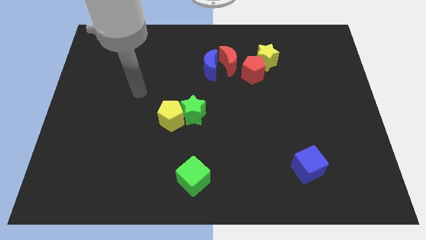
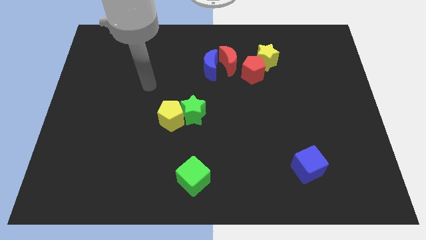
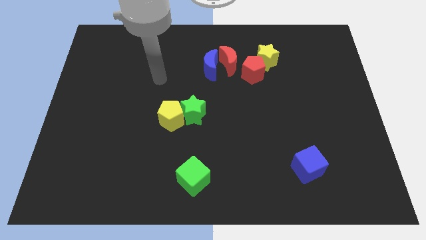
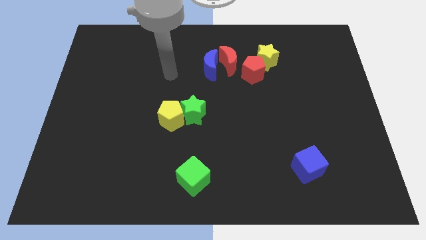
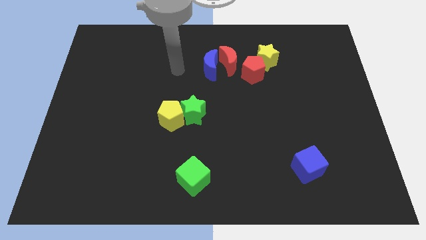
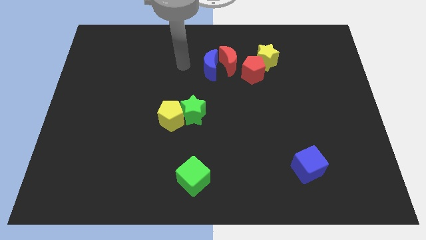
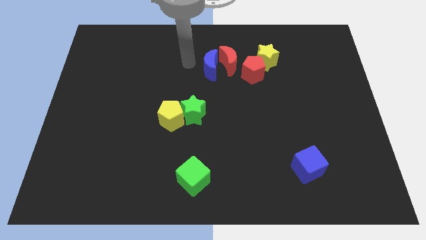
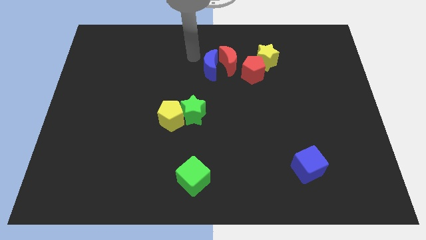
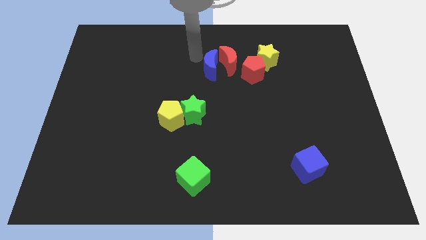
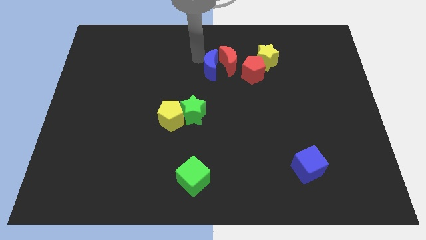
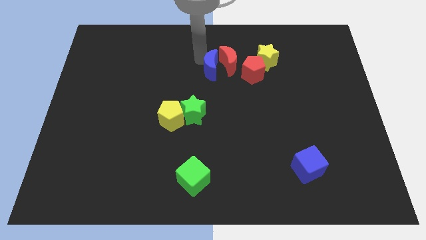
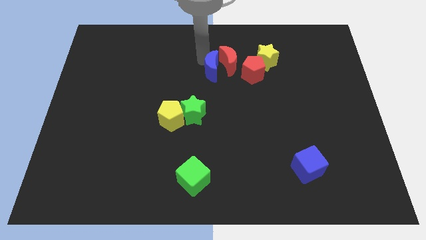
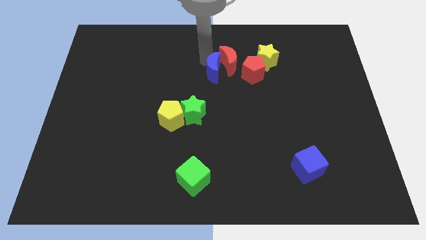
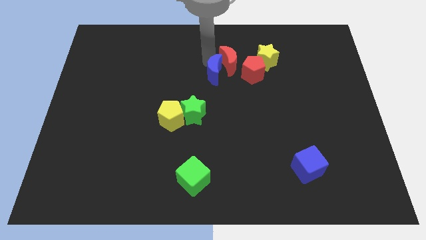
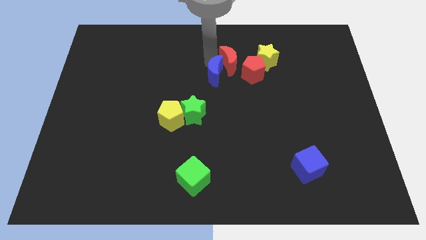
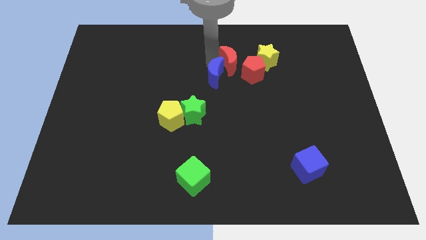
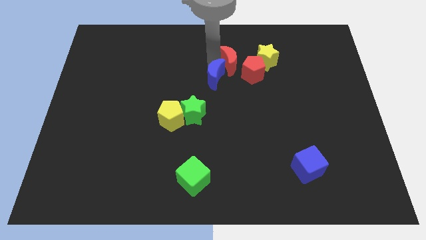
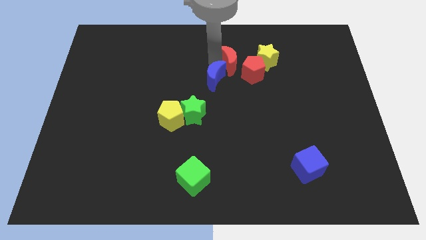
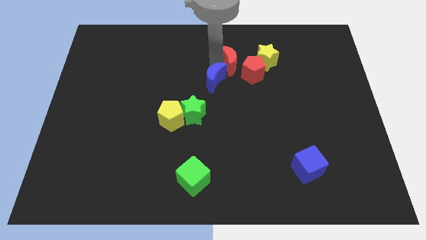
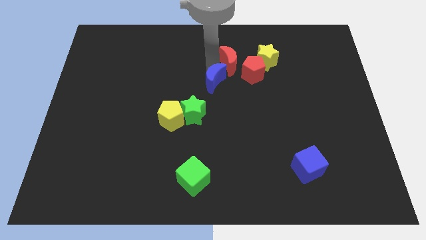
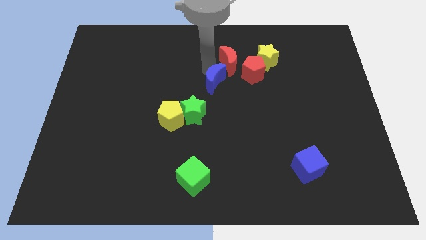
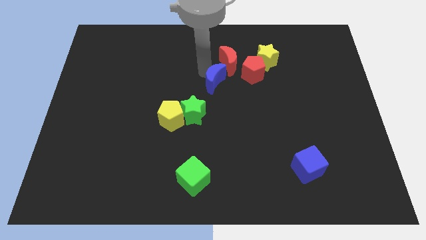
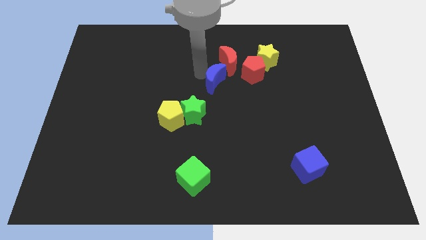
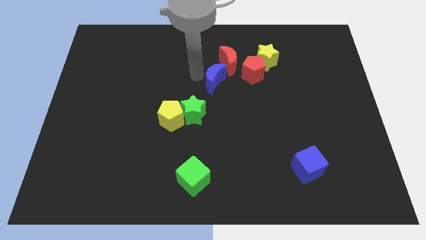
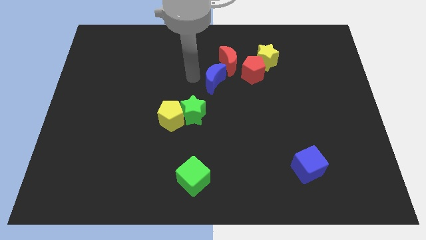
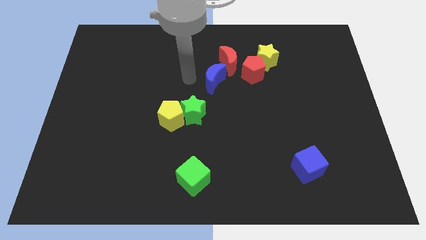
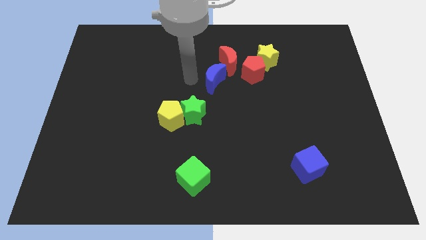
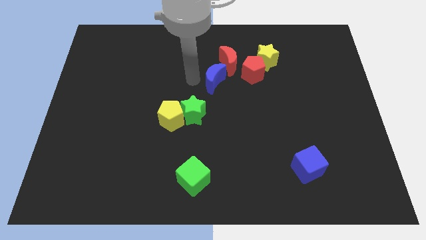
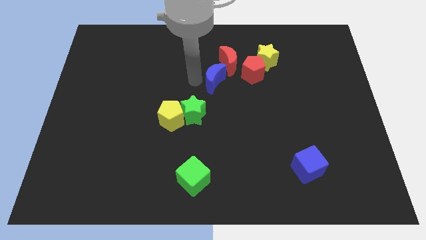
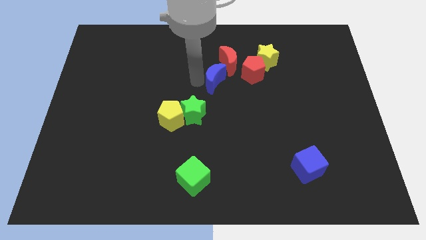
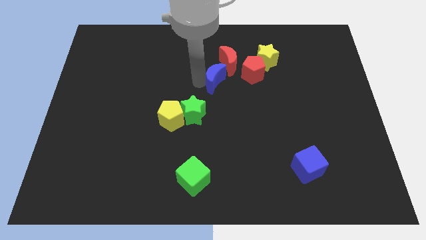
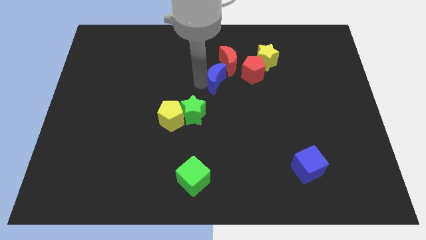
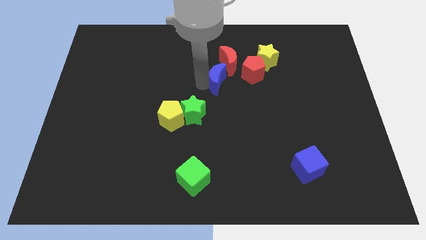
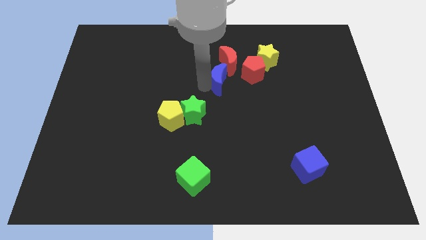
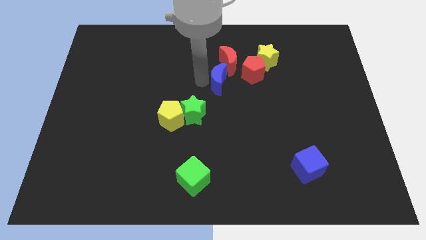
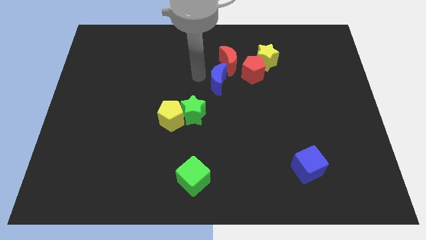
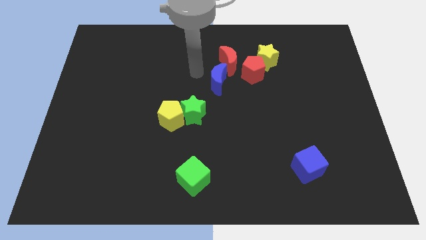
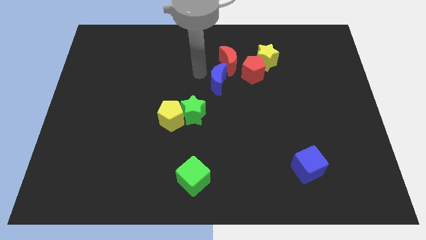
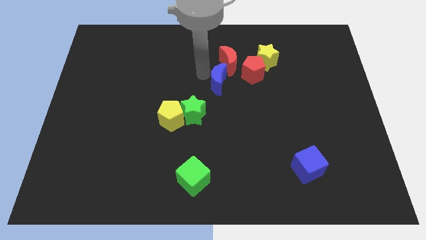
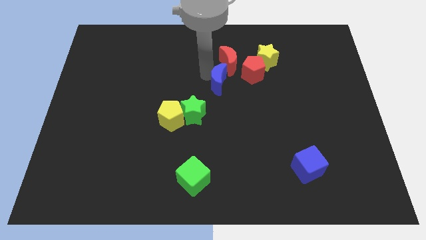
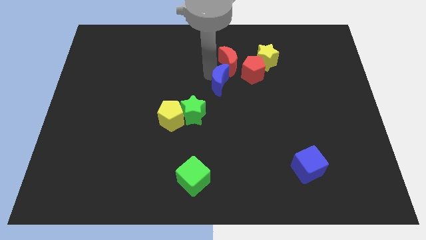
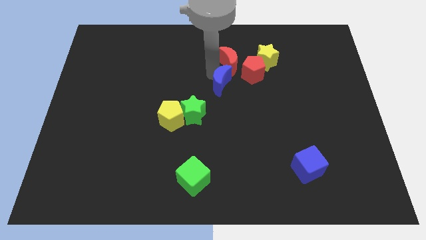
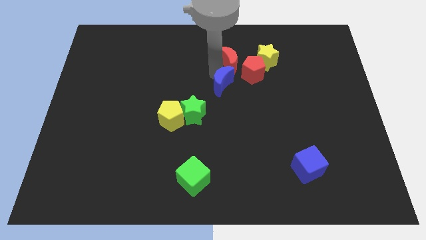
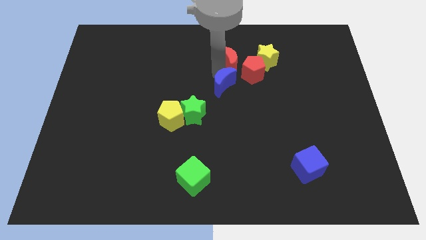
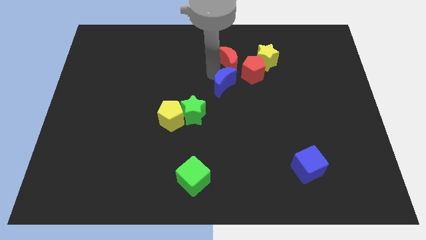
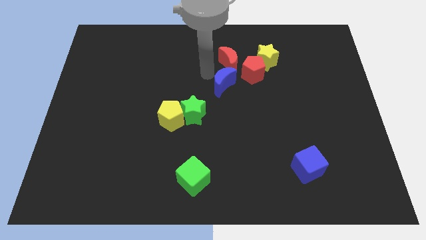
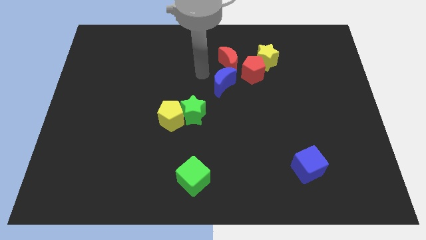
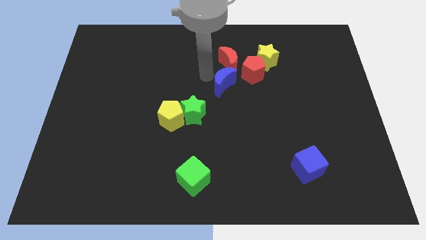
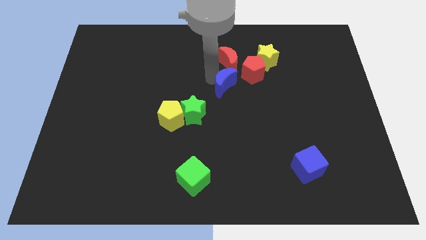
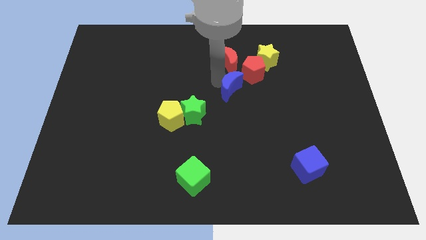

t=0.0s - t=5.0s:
slide the blue moon a little downwards and then right

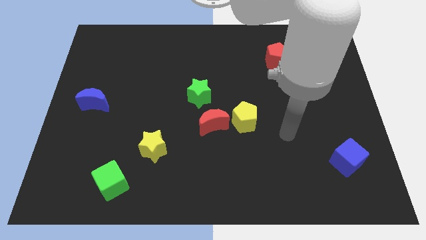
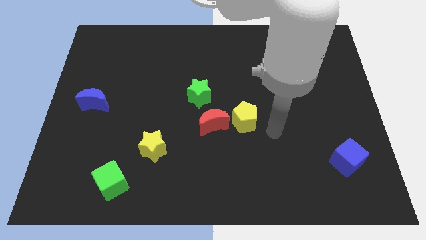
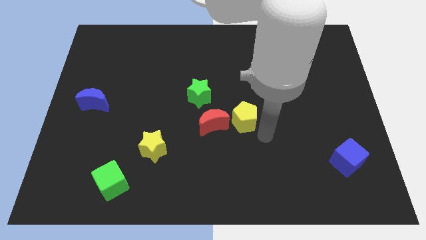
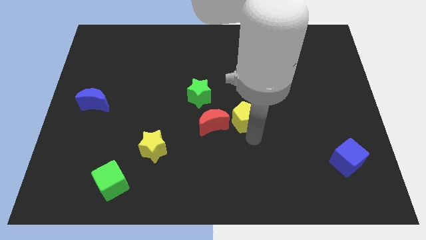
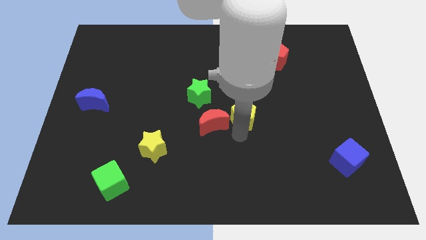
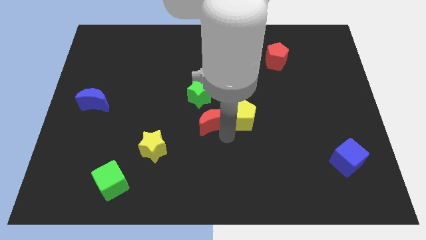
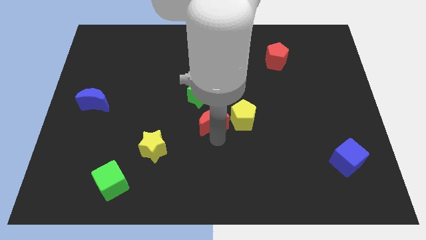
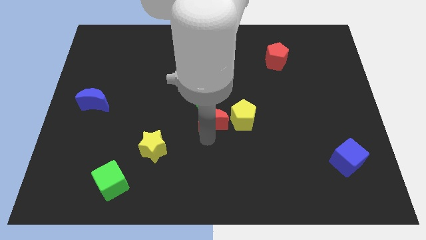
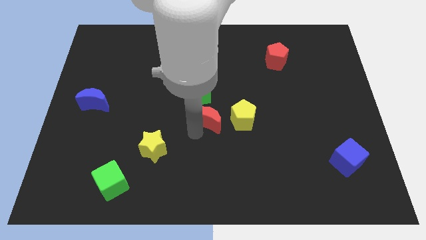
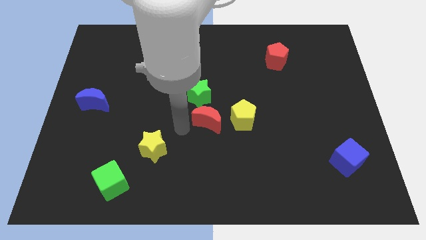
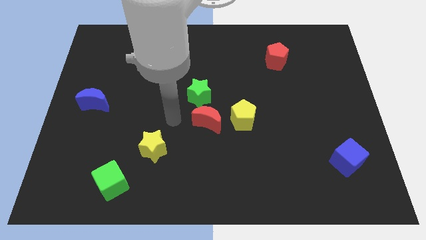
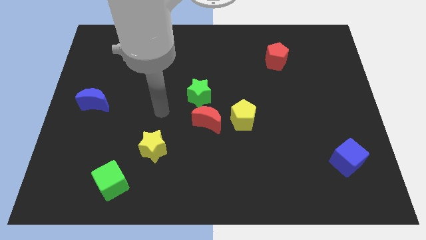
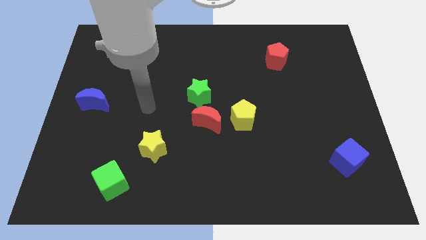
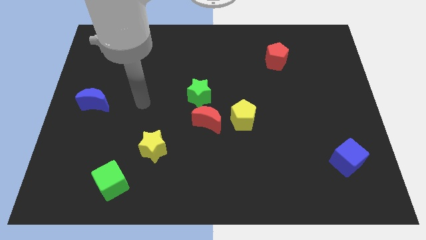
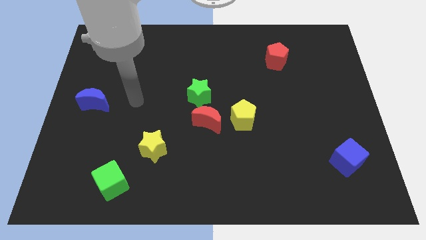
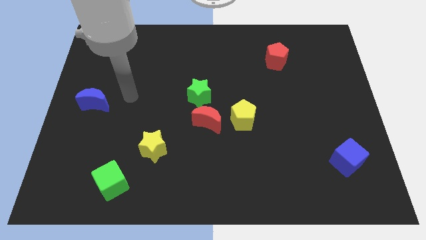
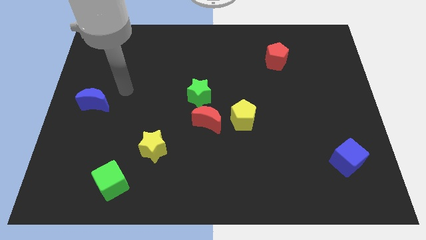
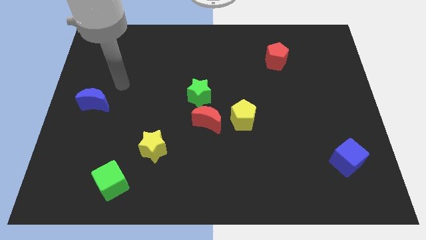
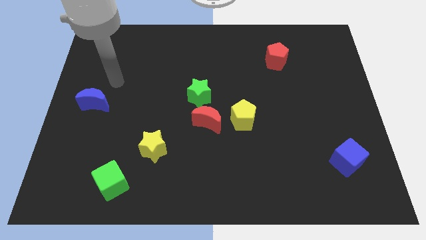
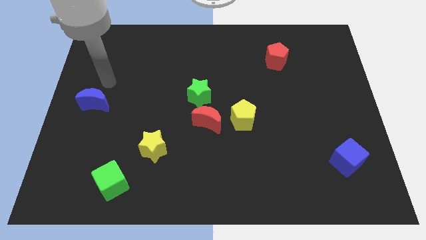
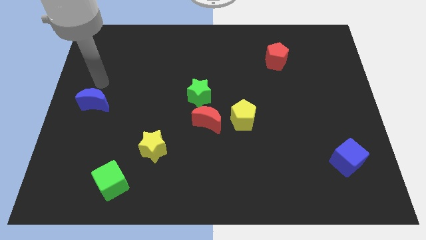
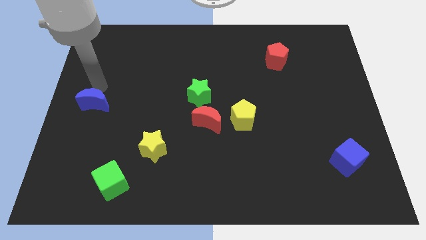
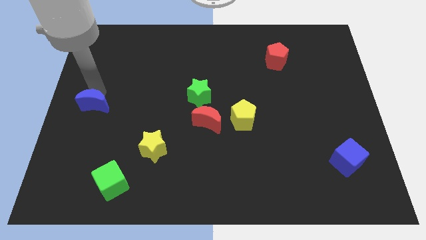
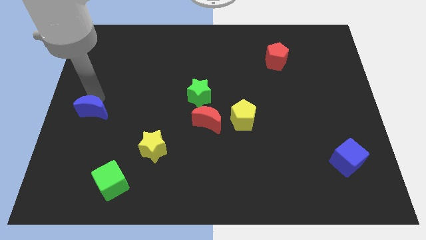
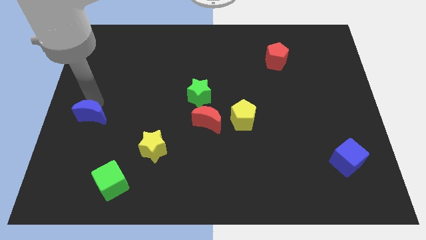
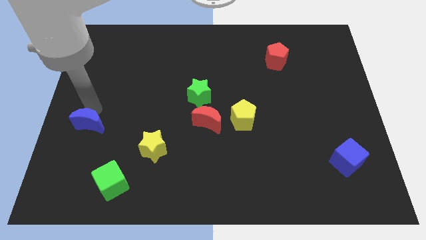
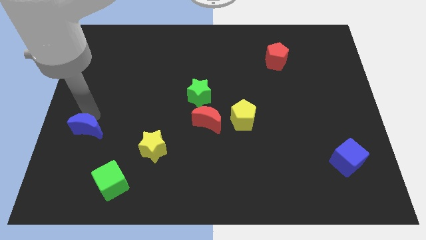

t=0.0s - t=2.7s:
push the blue moon a bit down

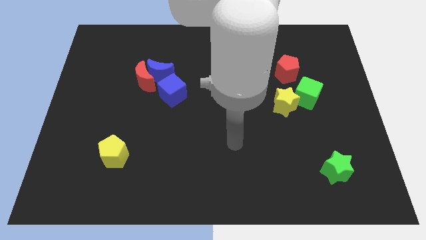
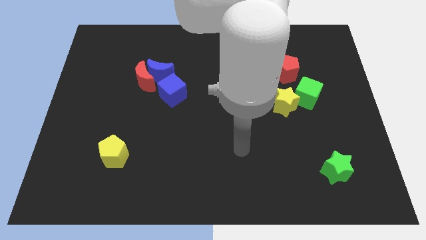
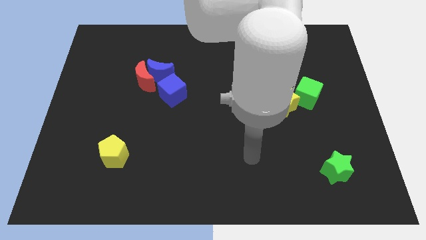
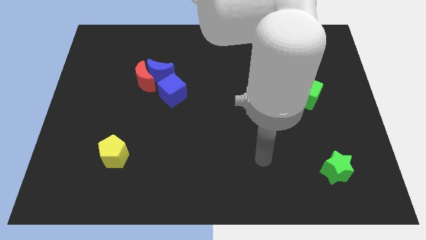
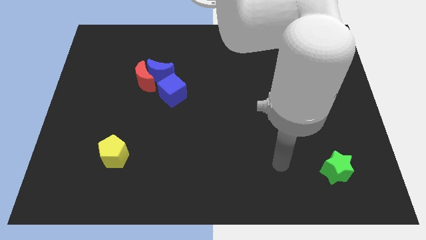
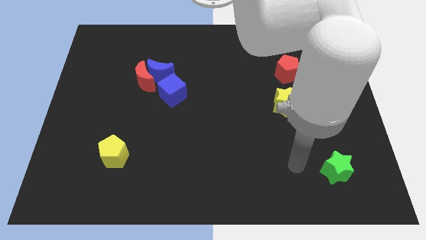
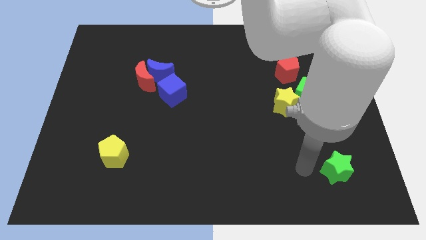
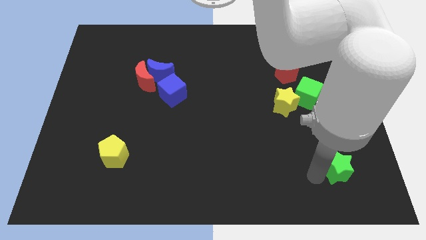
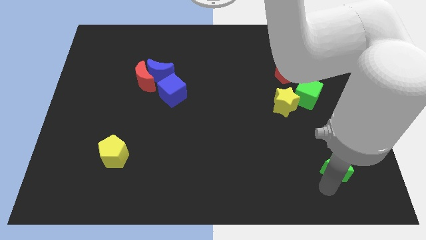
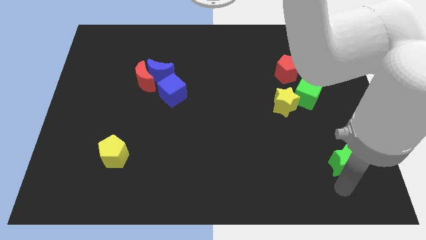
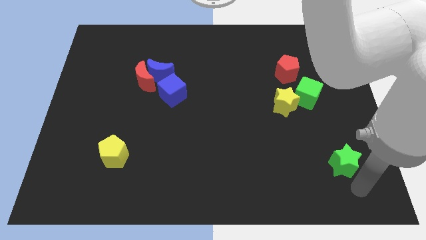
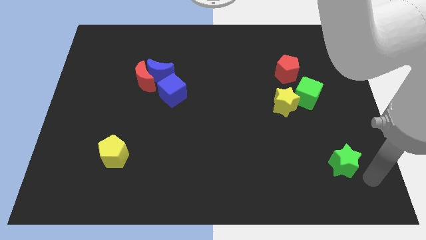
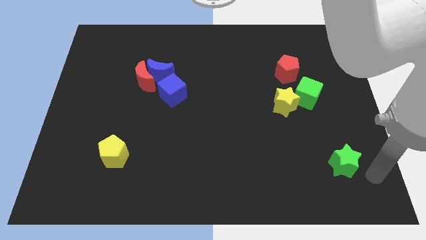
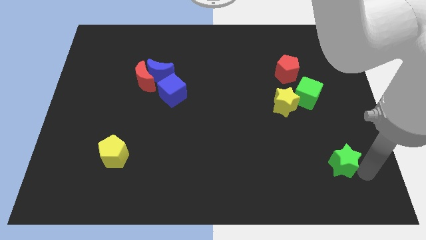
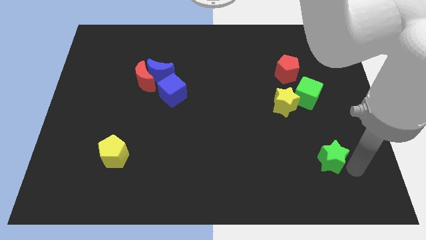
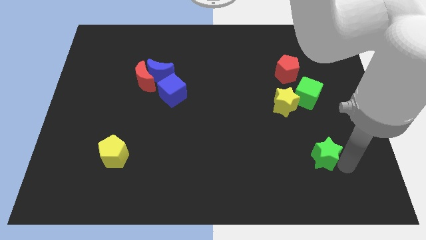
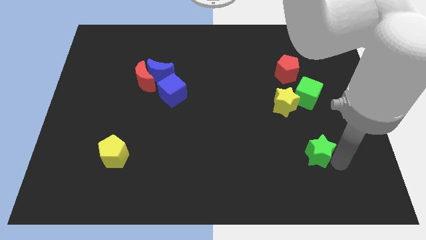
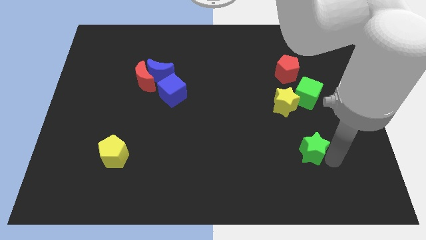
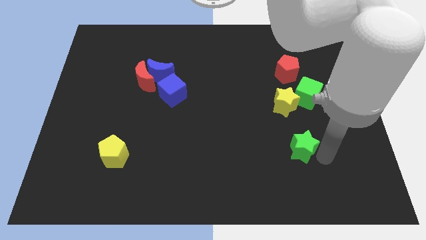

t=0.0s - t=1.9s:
move the green star a little bit diagonally upwards and left
